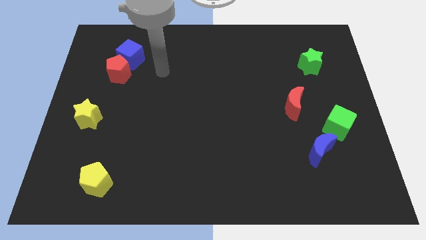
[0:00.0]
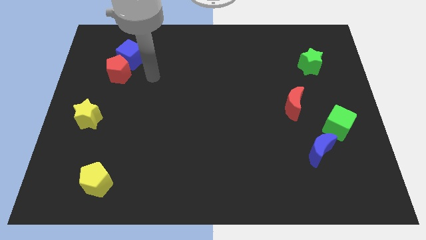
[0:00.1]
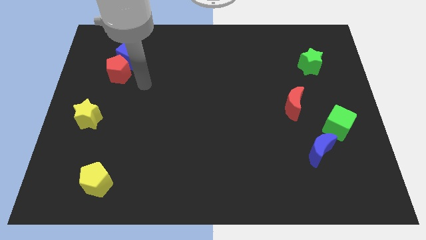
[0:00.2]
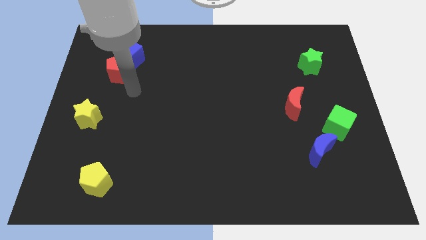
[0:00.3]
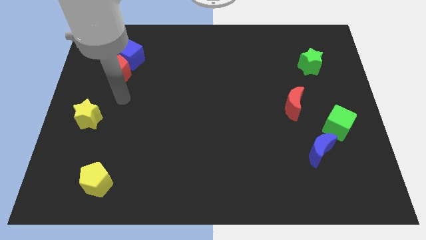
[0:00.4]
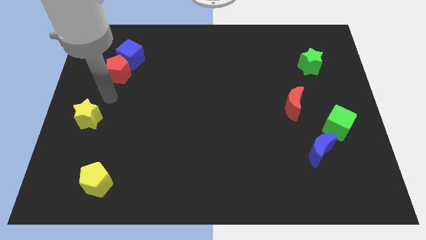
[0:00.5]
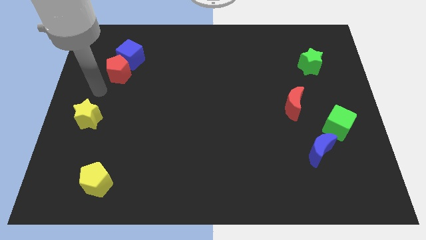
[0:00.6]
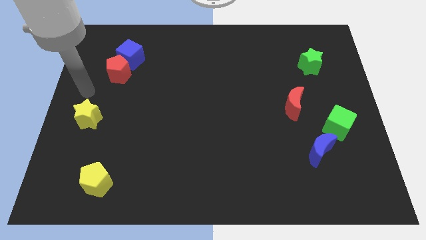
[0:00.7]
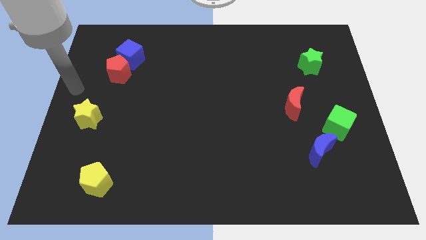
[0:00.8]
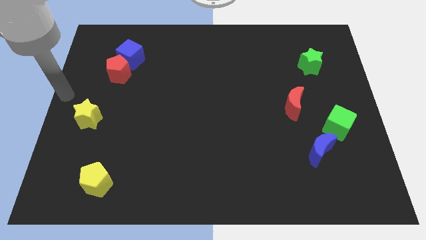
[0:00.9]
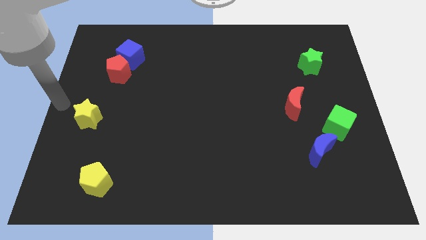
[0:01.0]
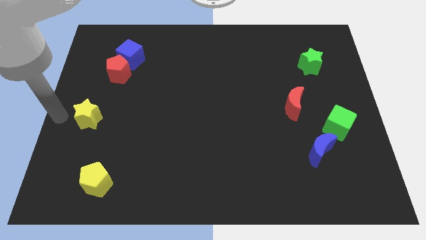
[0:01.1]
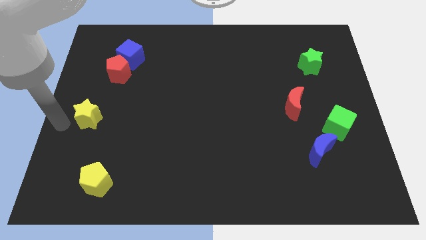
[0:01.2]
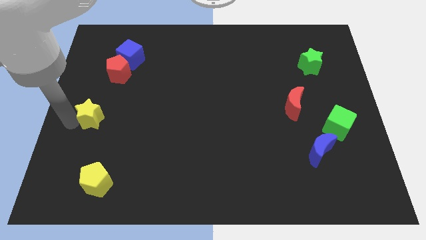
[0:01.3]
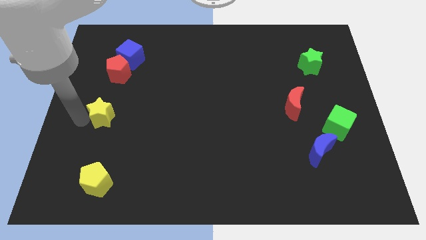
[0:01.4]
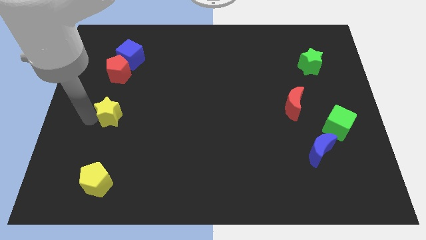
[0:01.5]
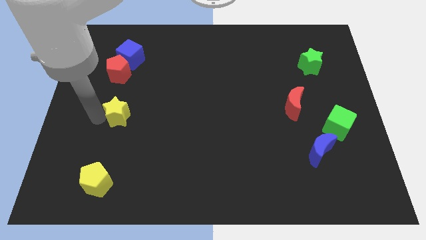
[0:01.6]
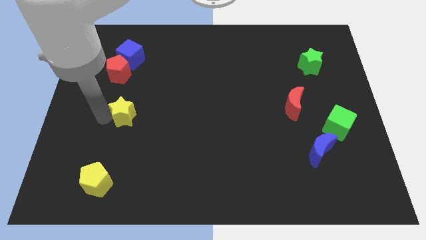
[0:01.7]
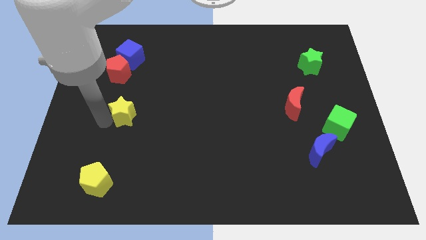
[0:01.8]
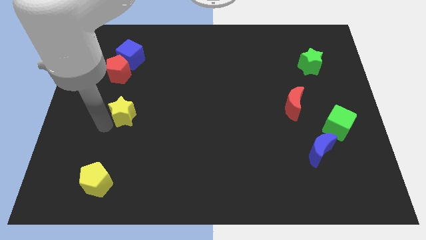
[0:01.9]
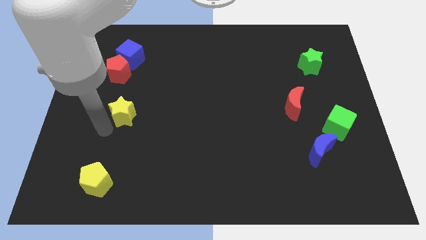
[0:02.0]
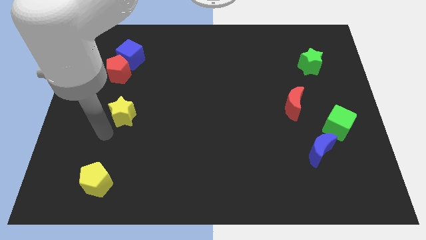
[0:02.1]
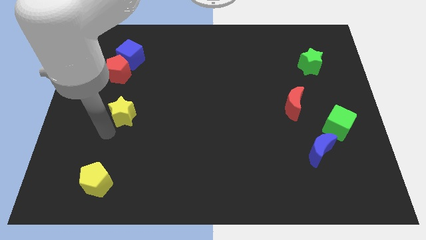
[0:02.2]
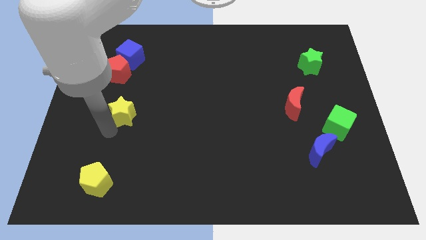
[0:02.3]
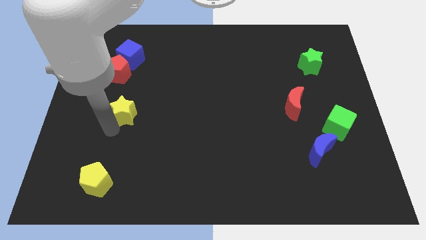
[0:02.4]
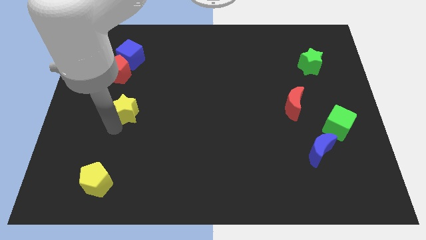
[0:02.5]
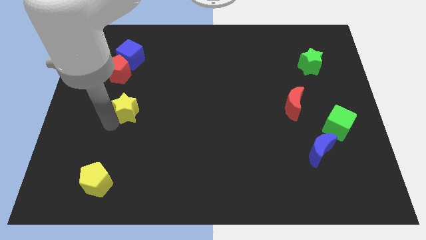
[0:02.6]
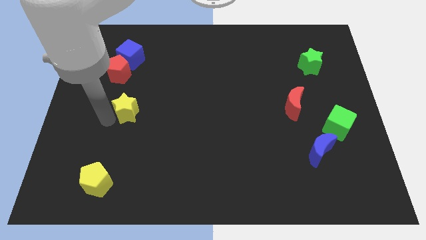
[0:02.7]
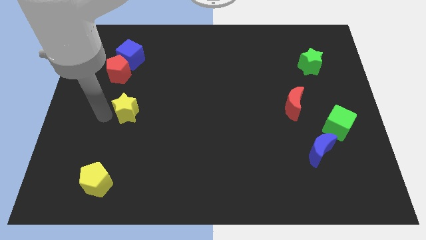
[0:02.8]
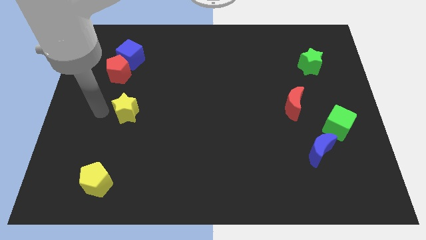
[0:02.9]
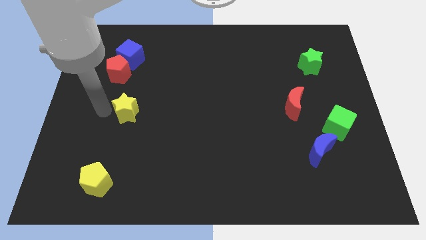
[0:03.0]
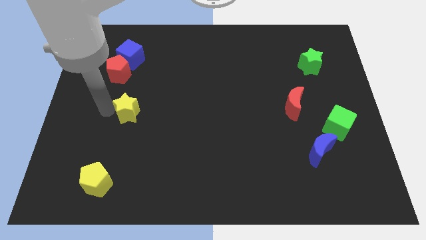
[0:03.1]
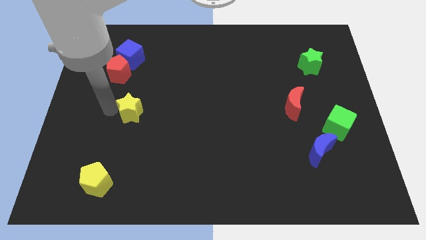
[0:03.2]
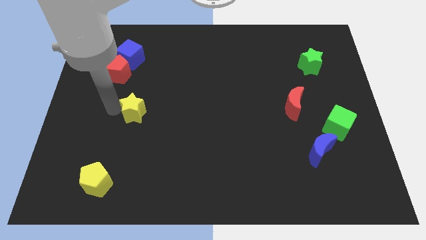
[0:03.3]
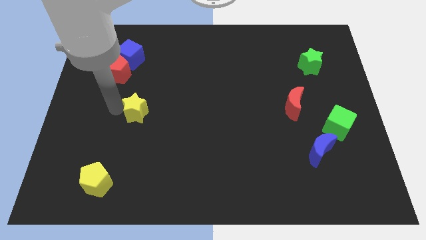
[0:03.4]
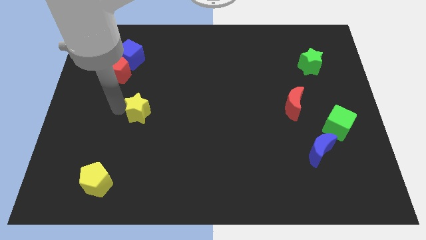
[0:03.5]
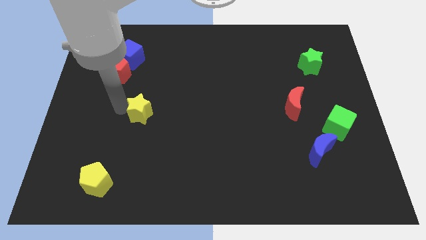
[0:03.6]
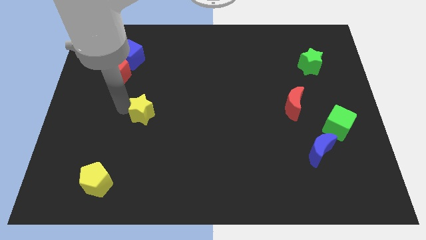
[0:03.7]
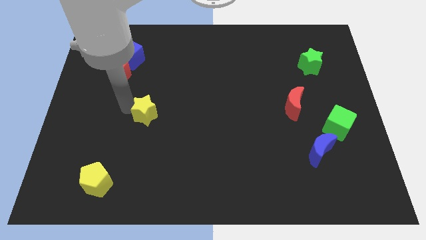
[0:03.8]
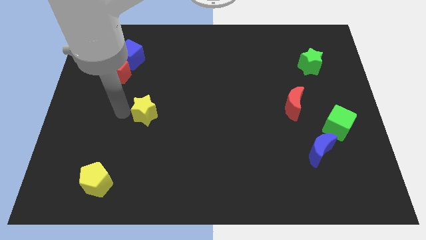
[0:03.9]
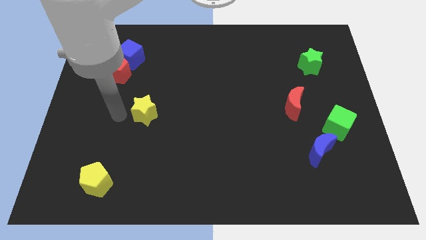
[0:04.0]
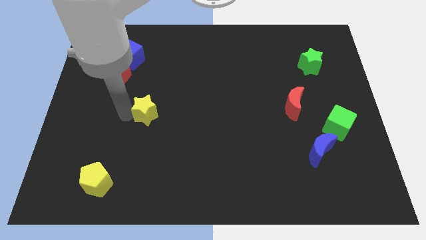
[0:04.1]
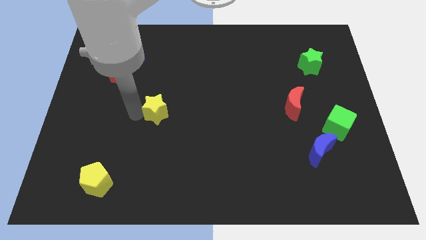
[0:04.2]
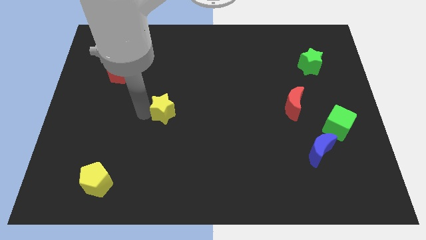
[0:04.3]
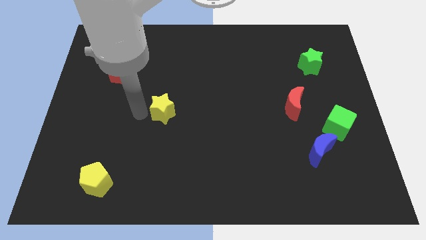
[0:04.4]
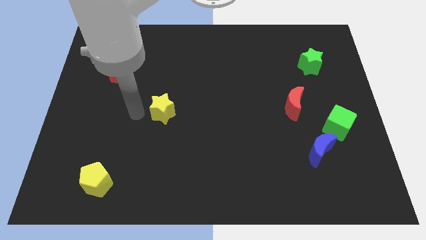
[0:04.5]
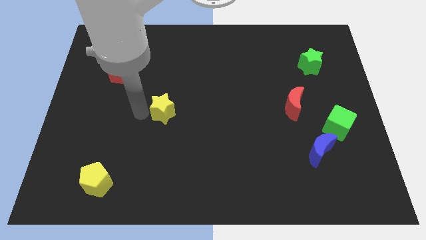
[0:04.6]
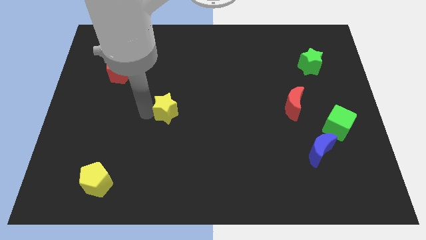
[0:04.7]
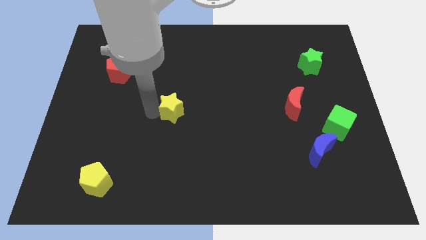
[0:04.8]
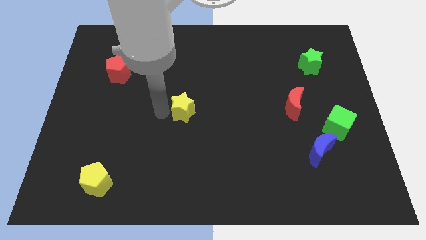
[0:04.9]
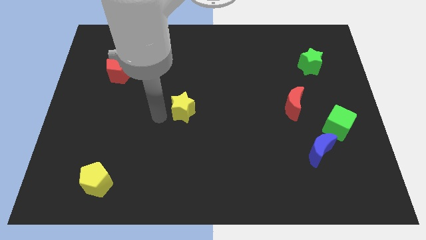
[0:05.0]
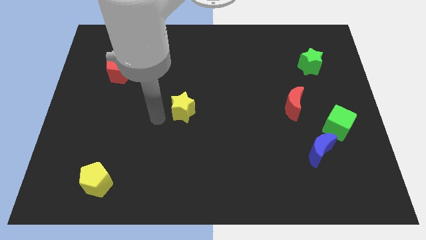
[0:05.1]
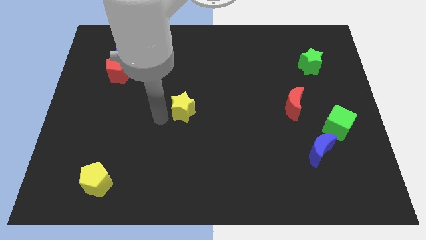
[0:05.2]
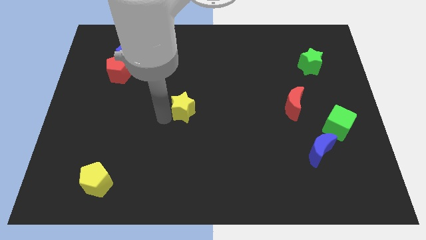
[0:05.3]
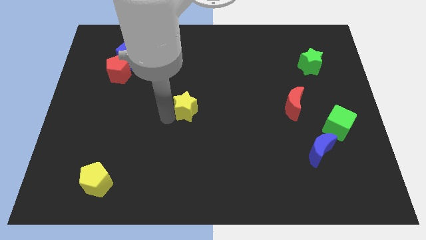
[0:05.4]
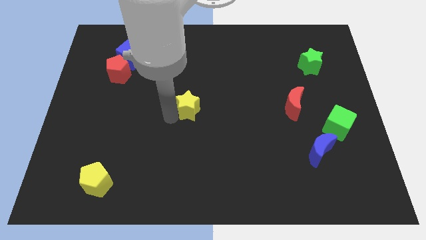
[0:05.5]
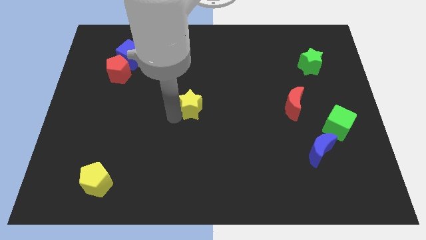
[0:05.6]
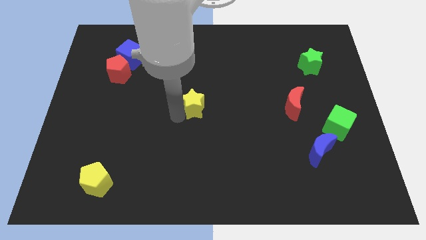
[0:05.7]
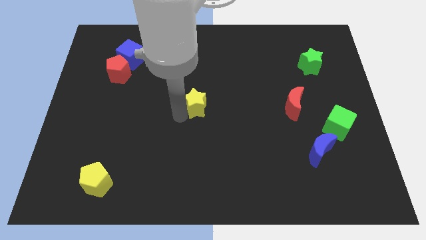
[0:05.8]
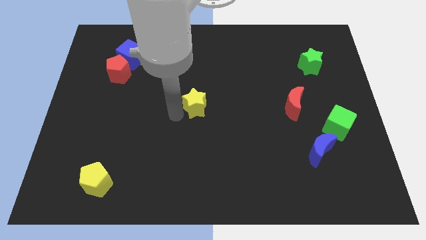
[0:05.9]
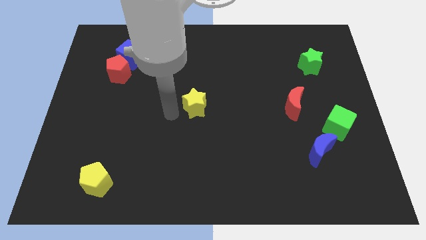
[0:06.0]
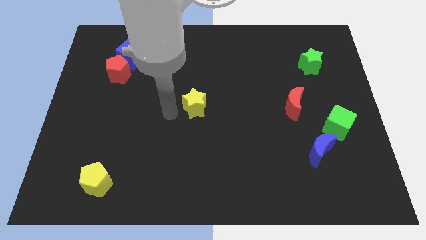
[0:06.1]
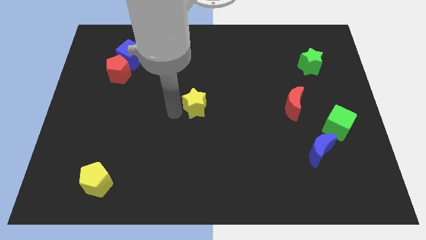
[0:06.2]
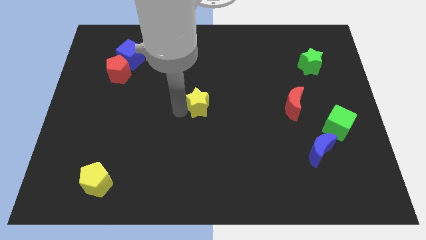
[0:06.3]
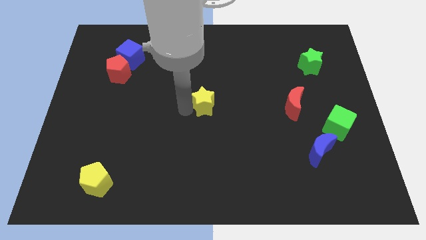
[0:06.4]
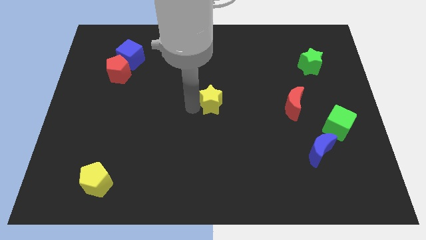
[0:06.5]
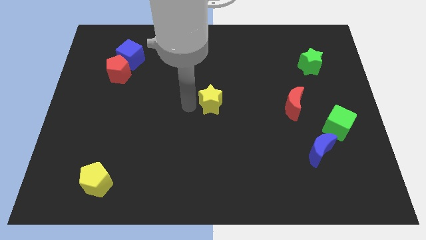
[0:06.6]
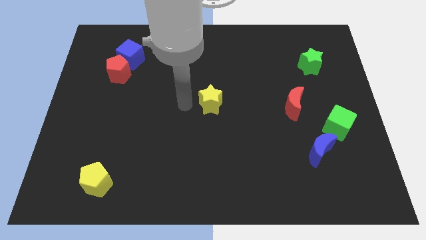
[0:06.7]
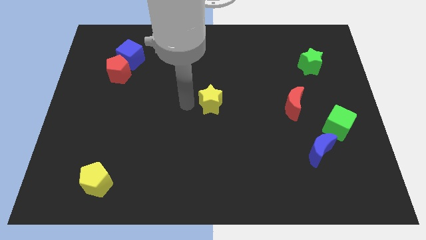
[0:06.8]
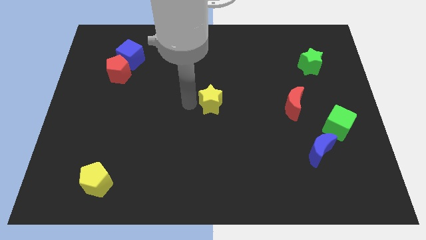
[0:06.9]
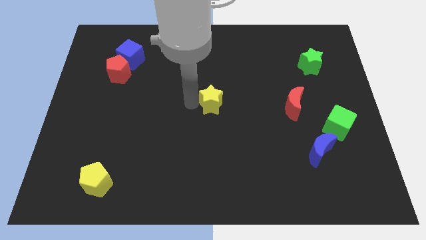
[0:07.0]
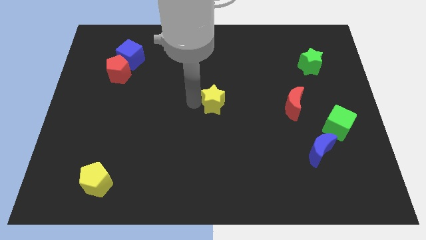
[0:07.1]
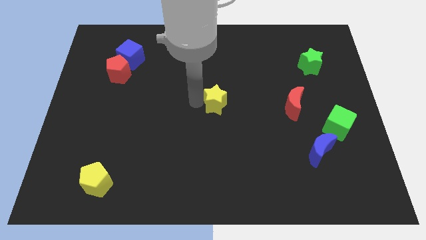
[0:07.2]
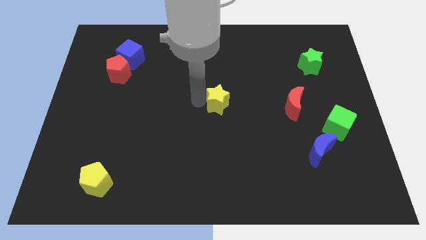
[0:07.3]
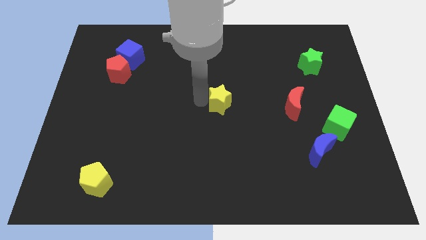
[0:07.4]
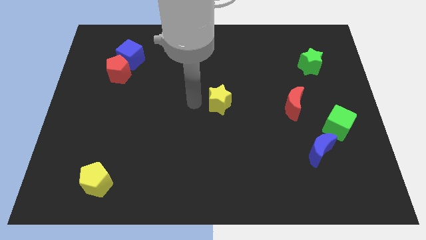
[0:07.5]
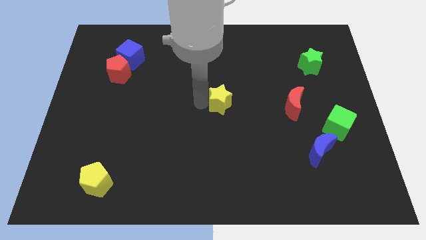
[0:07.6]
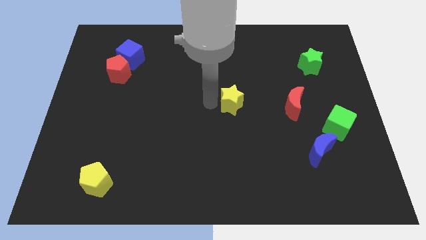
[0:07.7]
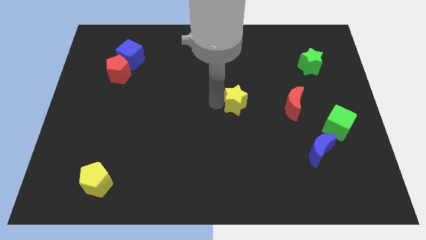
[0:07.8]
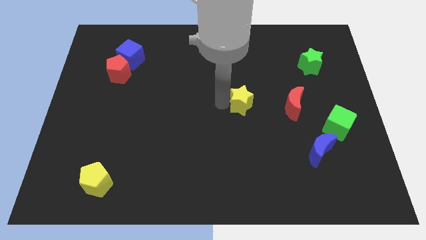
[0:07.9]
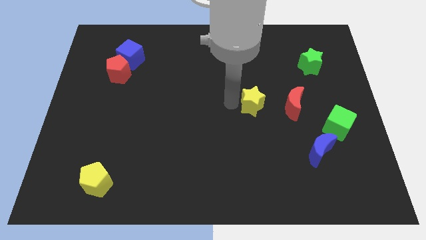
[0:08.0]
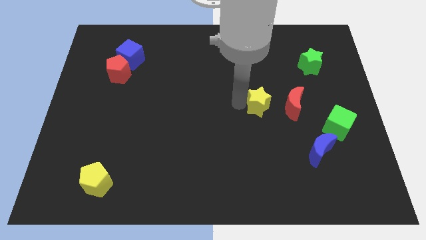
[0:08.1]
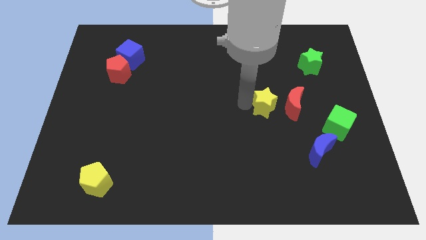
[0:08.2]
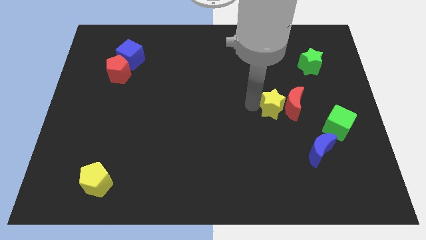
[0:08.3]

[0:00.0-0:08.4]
move the yellow star towards the red moon
